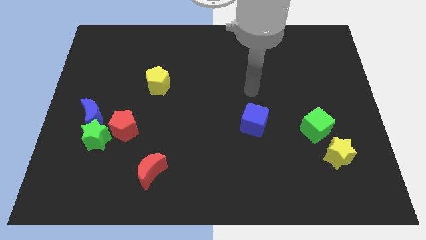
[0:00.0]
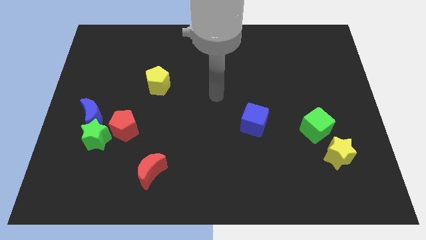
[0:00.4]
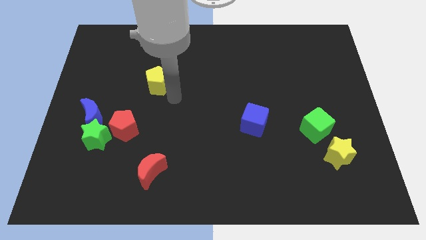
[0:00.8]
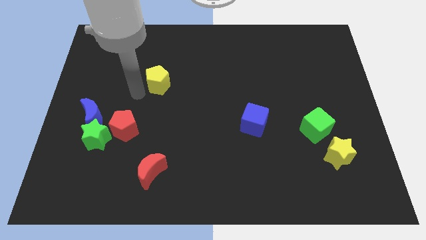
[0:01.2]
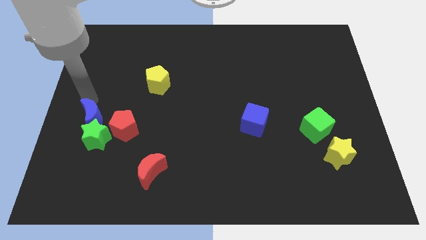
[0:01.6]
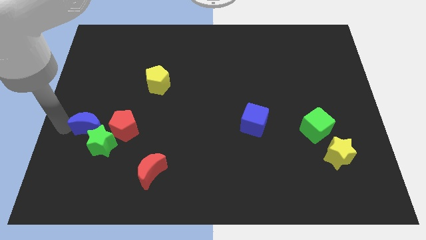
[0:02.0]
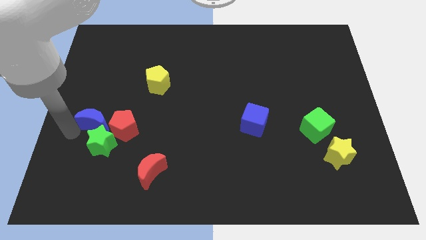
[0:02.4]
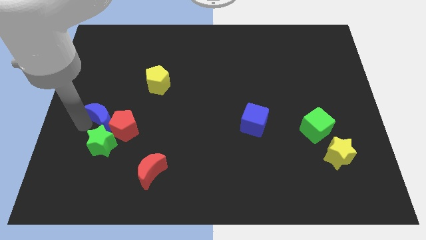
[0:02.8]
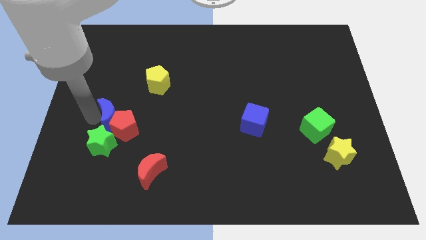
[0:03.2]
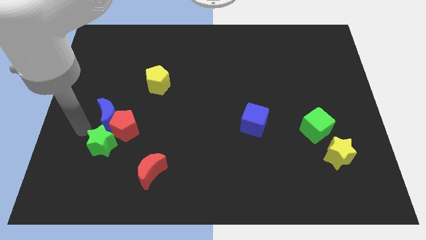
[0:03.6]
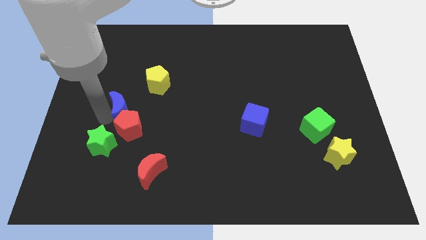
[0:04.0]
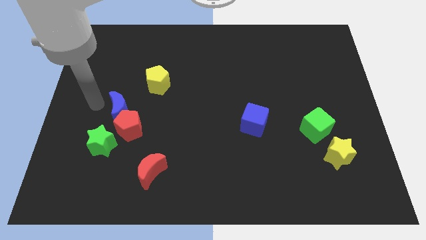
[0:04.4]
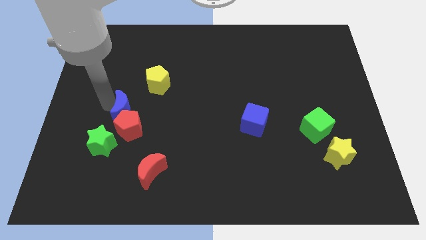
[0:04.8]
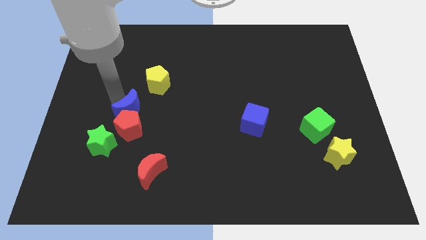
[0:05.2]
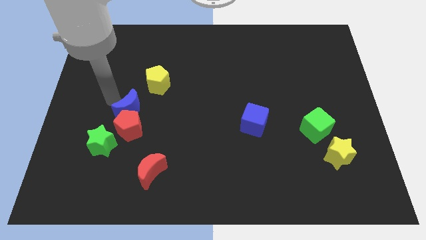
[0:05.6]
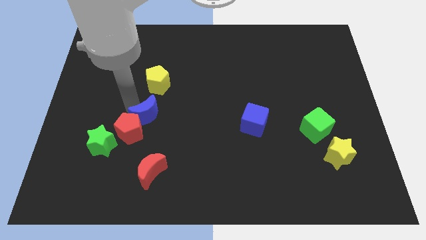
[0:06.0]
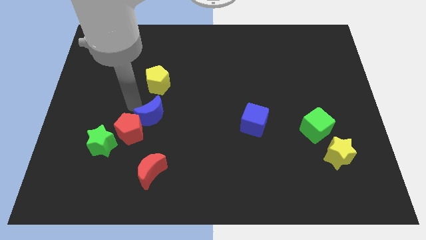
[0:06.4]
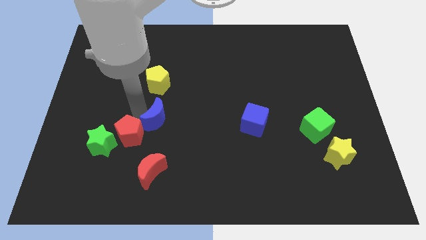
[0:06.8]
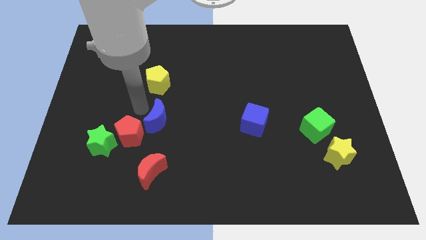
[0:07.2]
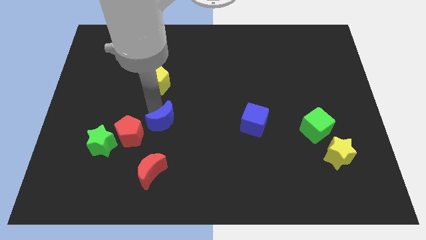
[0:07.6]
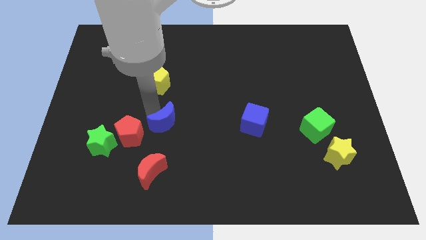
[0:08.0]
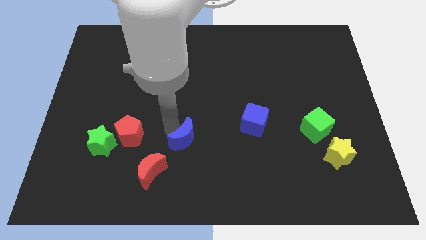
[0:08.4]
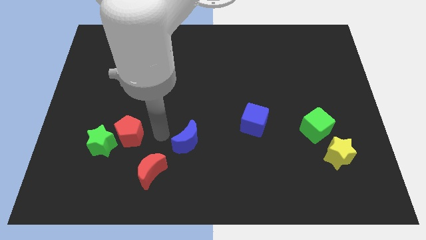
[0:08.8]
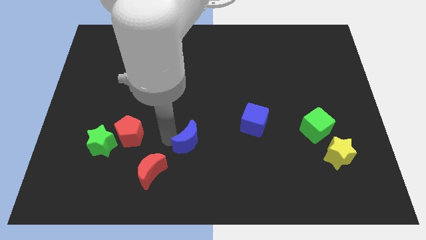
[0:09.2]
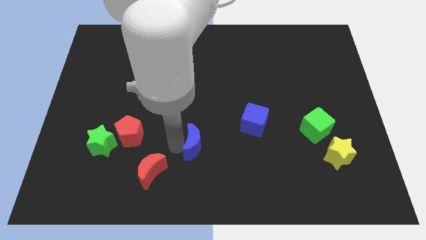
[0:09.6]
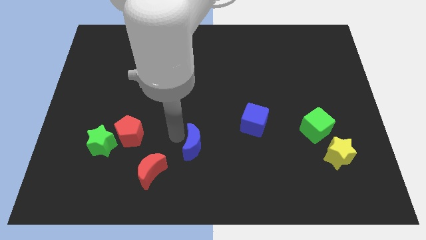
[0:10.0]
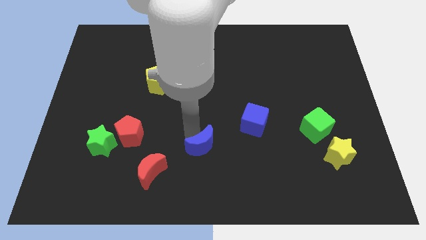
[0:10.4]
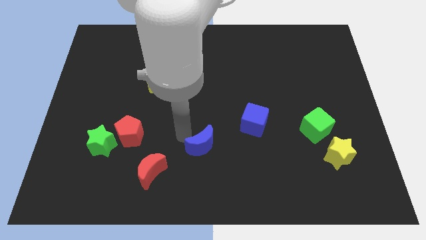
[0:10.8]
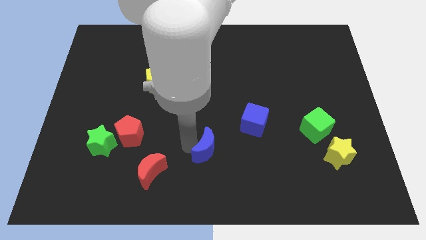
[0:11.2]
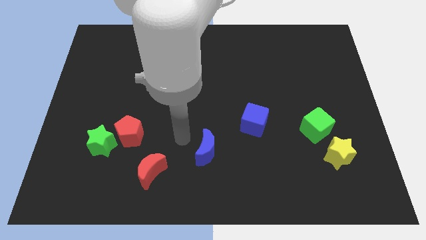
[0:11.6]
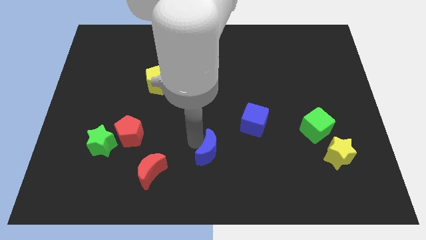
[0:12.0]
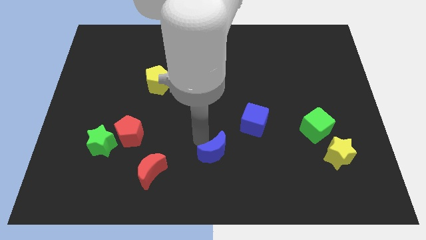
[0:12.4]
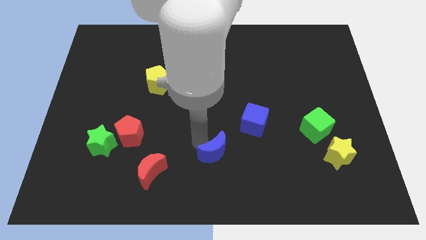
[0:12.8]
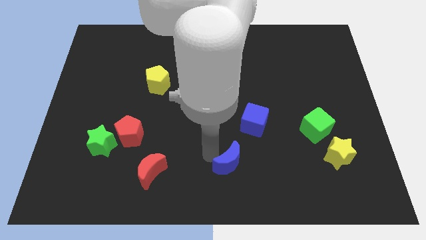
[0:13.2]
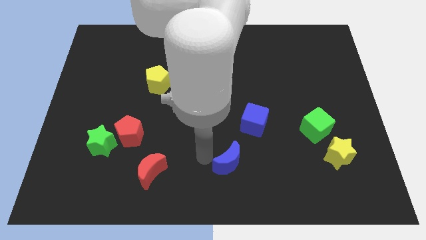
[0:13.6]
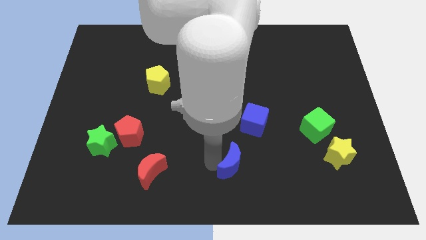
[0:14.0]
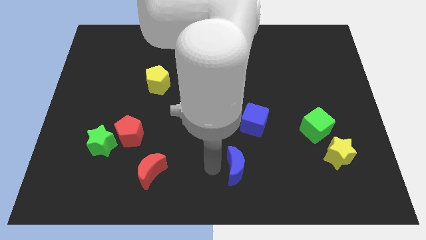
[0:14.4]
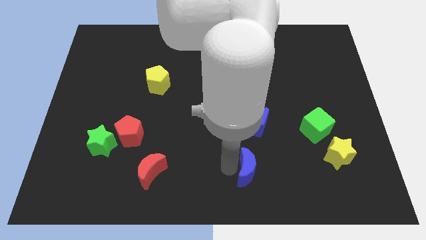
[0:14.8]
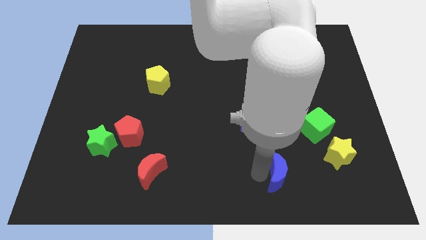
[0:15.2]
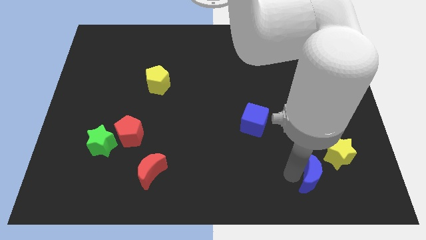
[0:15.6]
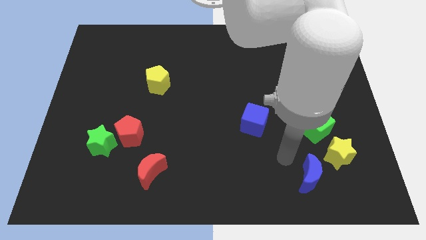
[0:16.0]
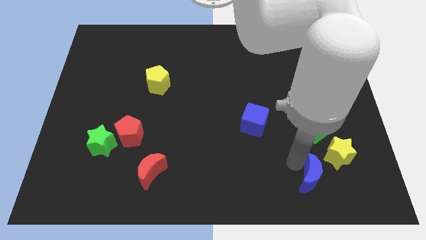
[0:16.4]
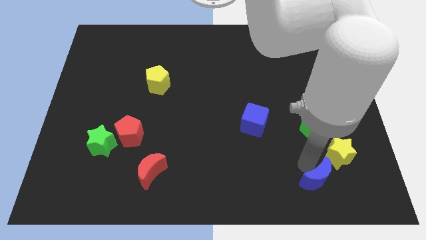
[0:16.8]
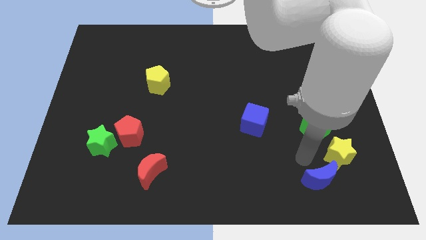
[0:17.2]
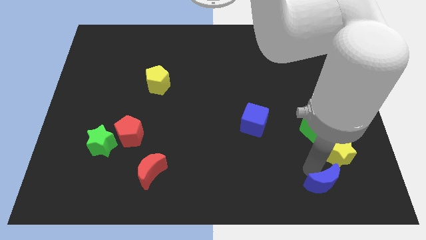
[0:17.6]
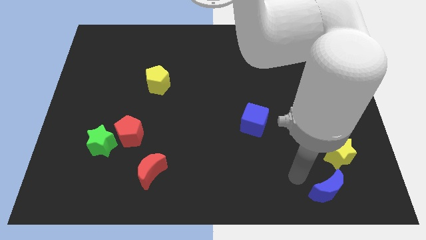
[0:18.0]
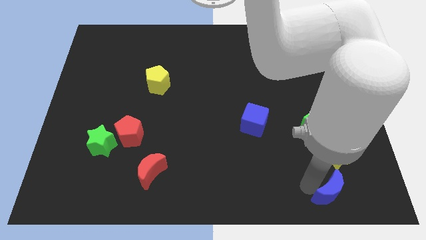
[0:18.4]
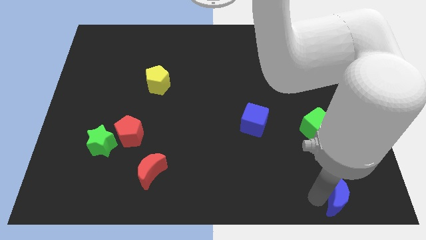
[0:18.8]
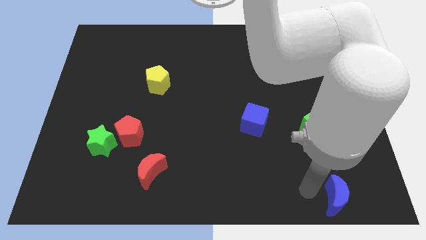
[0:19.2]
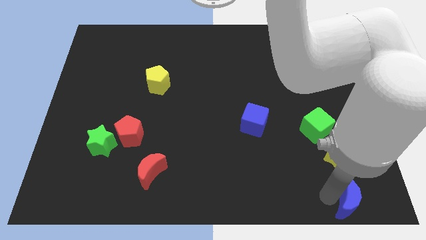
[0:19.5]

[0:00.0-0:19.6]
put the blue moon to the bottom right

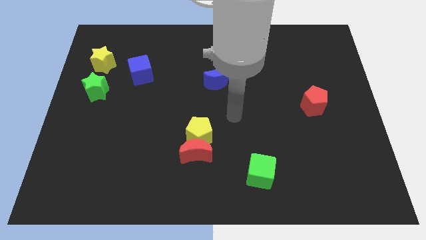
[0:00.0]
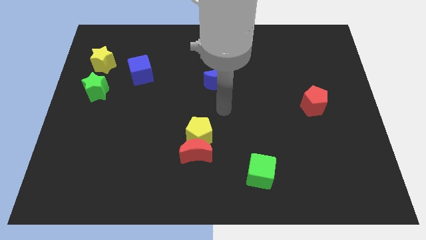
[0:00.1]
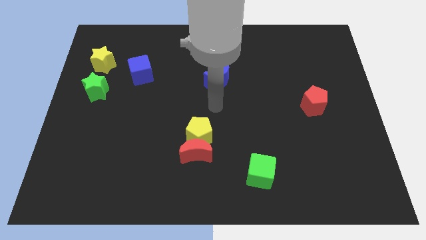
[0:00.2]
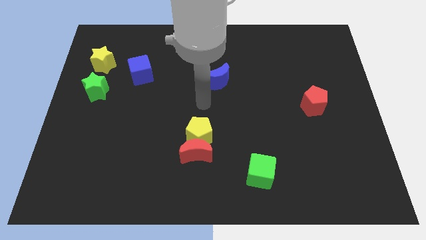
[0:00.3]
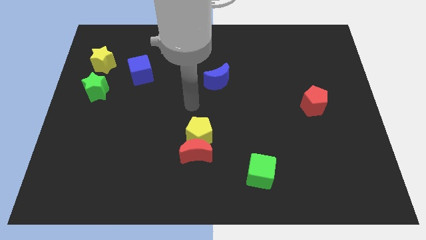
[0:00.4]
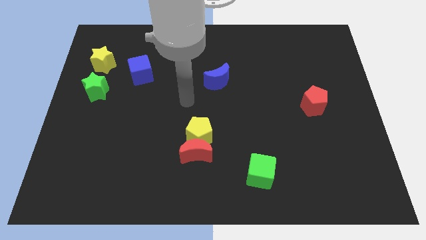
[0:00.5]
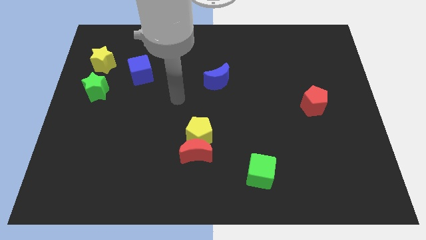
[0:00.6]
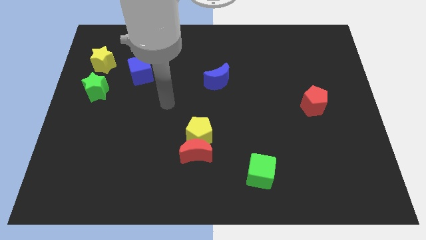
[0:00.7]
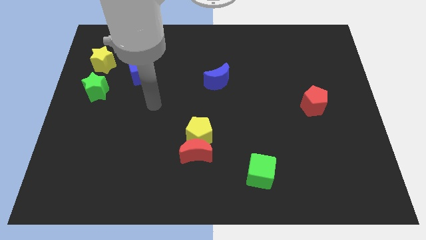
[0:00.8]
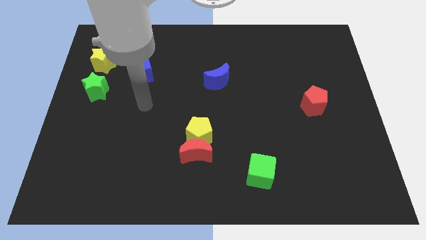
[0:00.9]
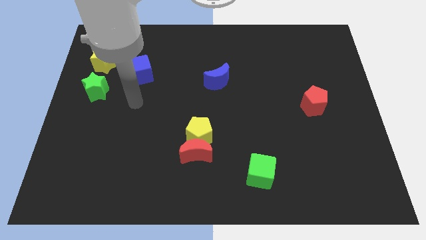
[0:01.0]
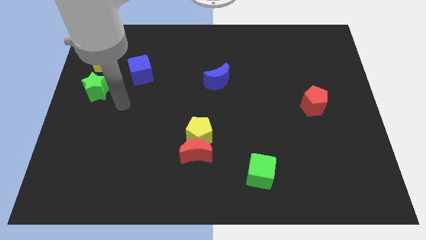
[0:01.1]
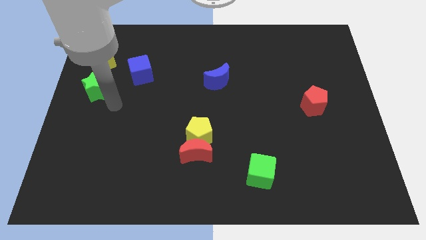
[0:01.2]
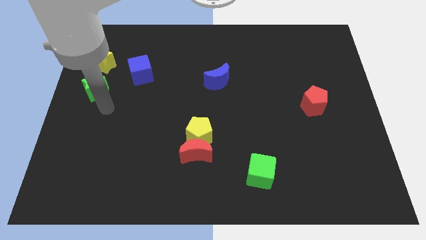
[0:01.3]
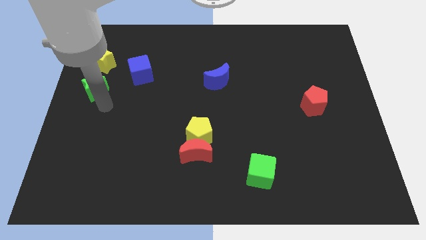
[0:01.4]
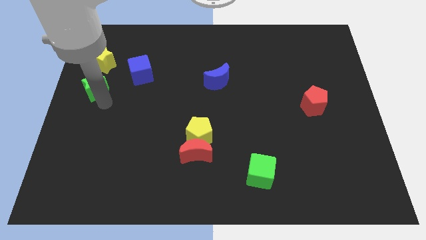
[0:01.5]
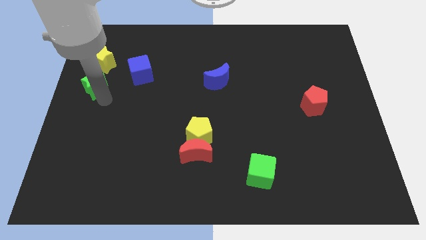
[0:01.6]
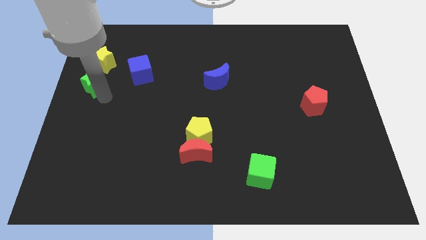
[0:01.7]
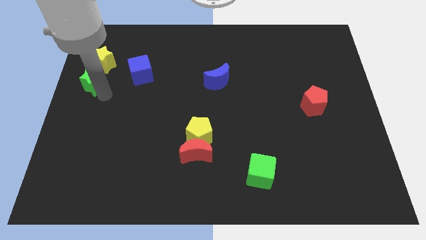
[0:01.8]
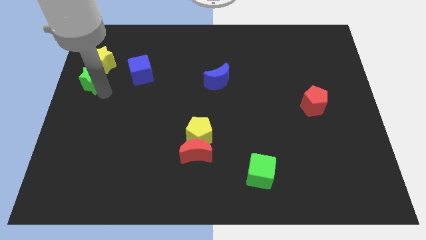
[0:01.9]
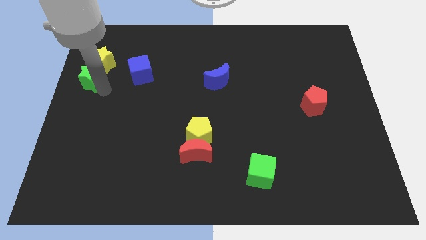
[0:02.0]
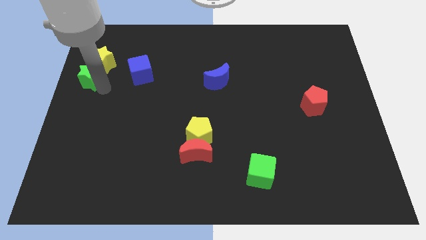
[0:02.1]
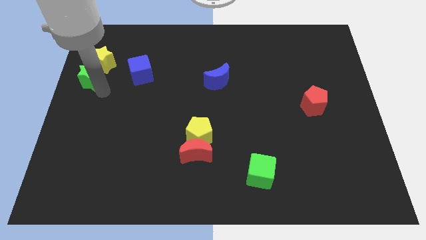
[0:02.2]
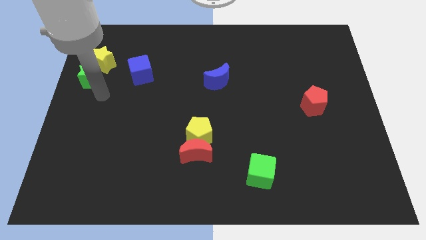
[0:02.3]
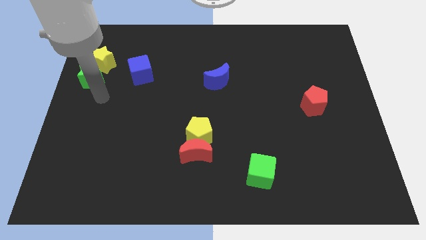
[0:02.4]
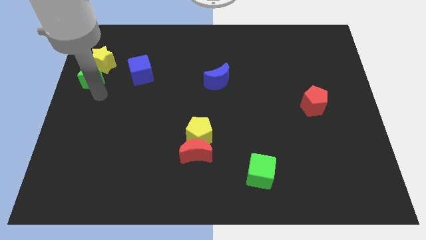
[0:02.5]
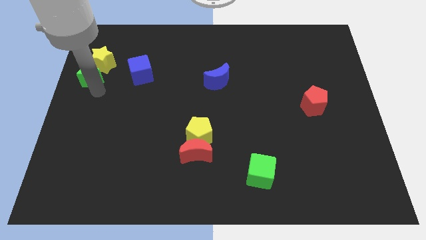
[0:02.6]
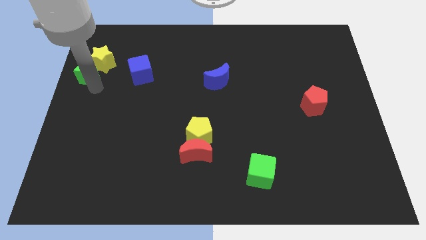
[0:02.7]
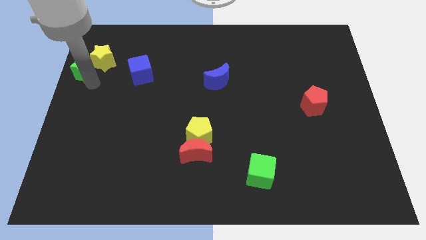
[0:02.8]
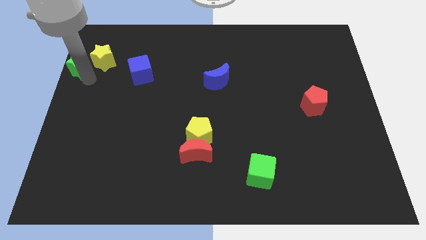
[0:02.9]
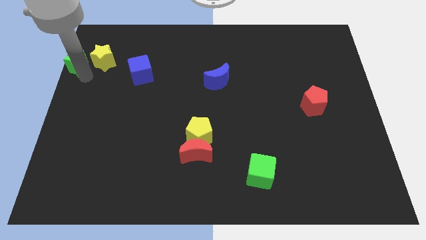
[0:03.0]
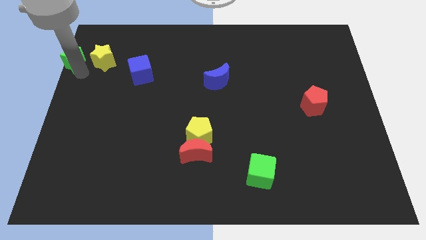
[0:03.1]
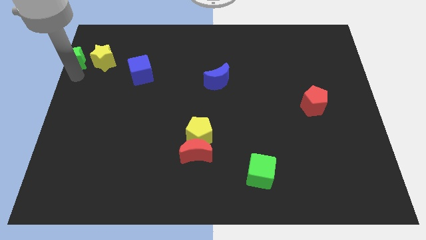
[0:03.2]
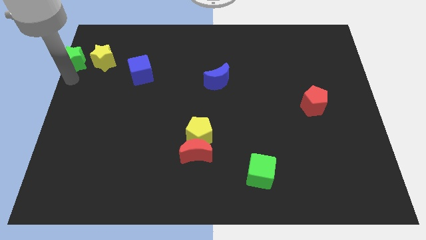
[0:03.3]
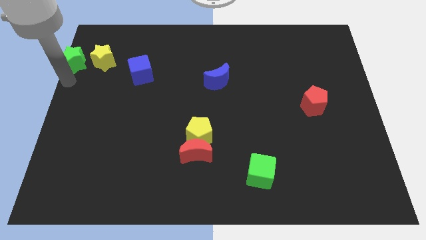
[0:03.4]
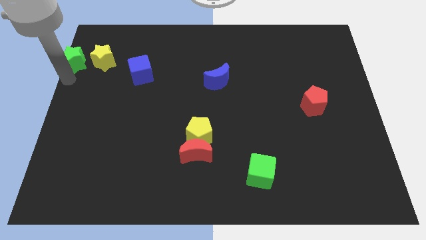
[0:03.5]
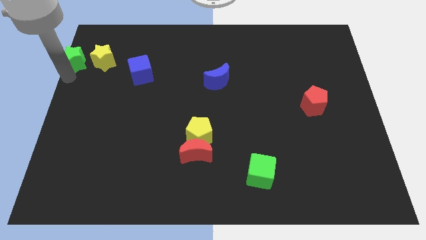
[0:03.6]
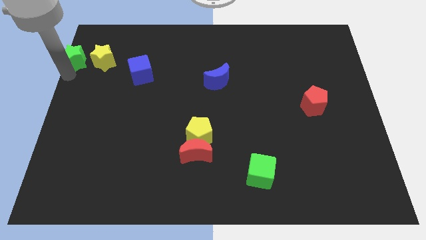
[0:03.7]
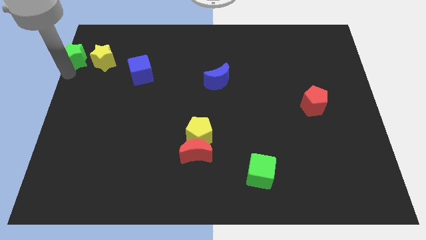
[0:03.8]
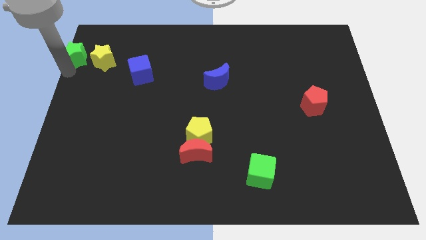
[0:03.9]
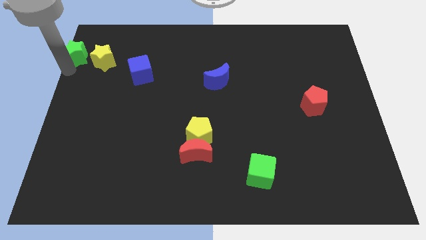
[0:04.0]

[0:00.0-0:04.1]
push the green star to the top left of the board
